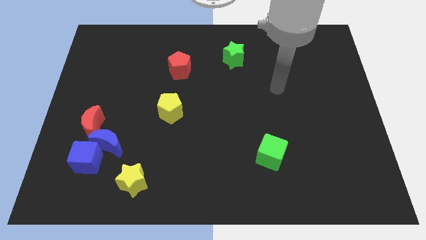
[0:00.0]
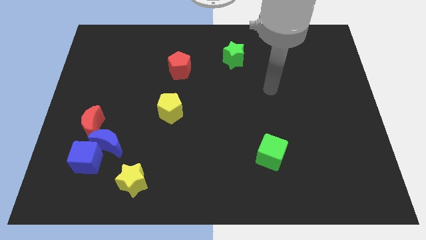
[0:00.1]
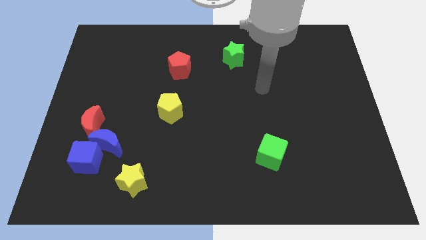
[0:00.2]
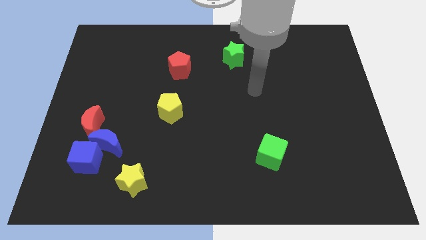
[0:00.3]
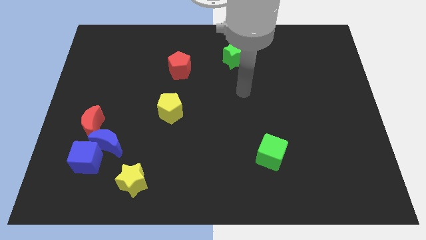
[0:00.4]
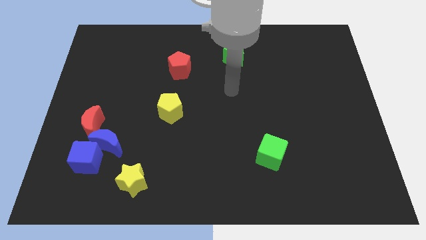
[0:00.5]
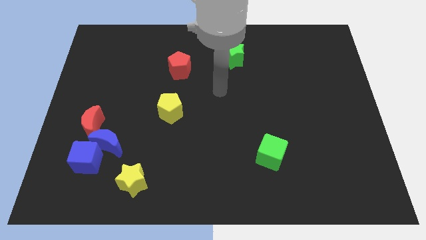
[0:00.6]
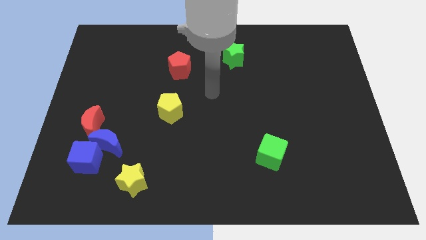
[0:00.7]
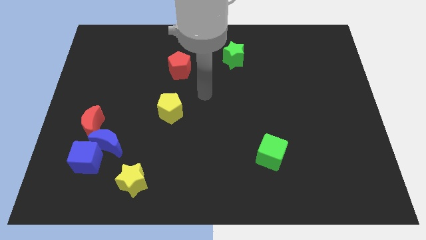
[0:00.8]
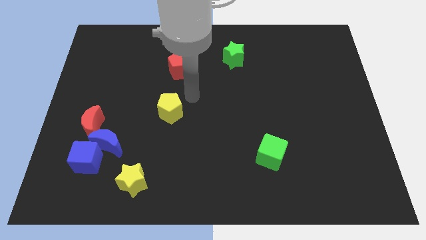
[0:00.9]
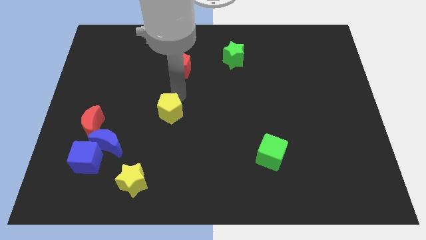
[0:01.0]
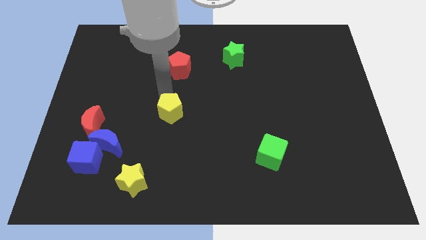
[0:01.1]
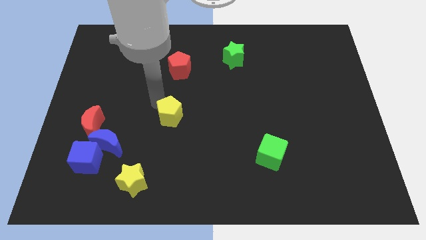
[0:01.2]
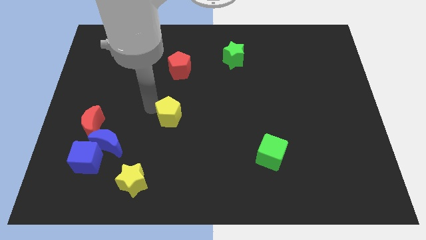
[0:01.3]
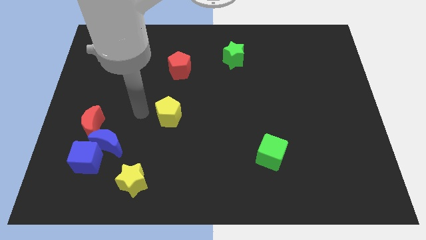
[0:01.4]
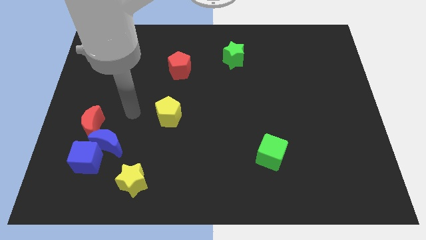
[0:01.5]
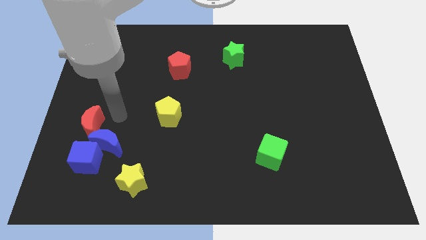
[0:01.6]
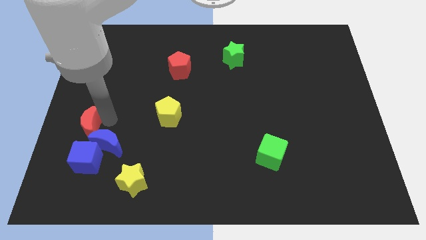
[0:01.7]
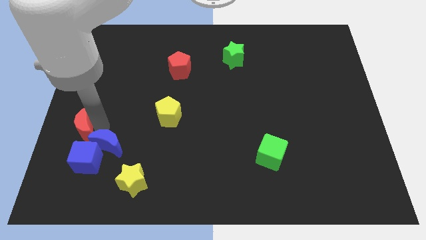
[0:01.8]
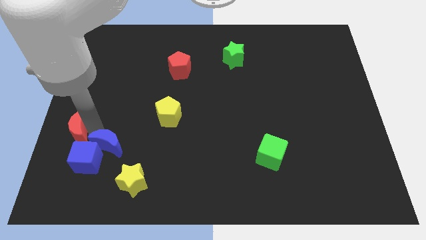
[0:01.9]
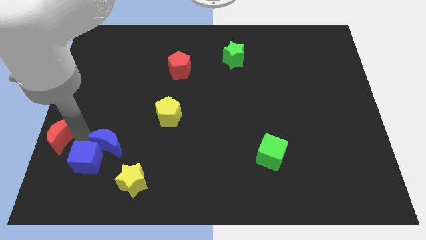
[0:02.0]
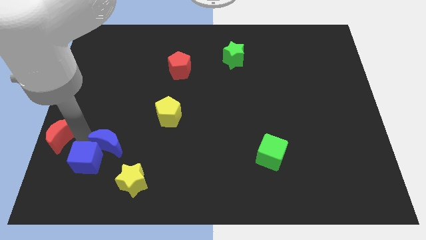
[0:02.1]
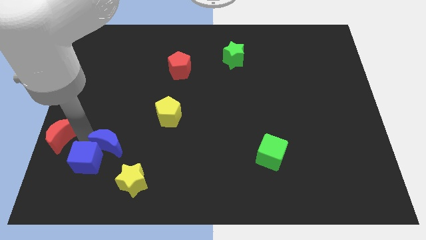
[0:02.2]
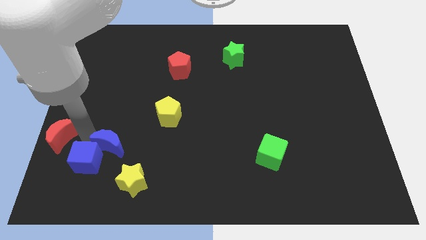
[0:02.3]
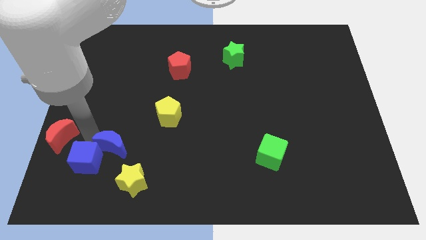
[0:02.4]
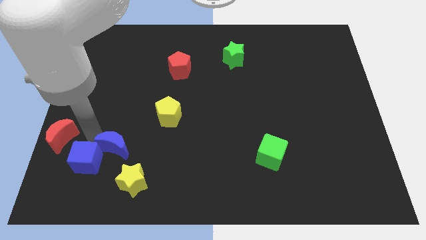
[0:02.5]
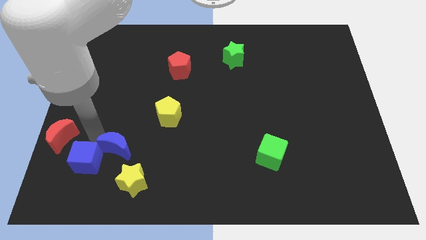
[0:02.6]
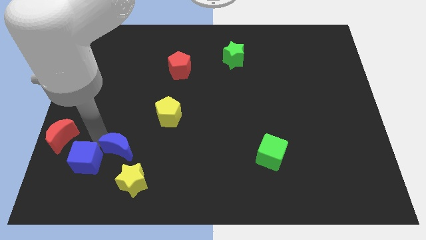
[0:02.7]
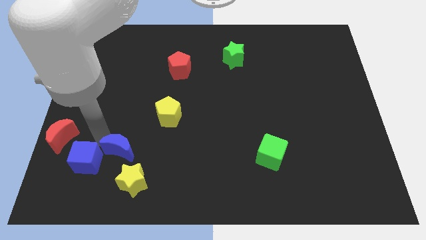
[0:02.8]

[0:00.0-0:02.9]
move the blue moon away from the blue cube and red moon

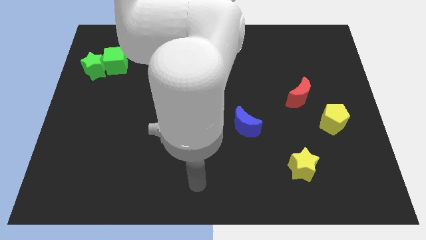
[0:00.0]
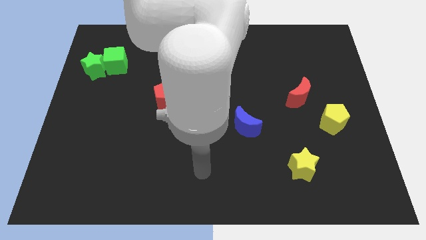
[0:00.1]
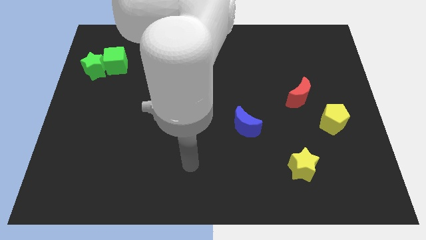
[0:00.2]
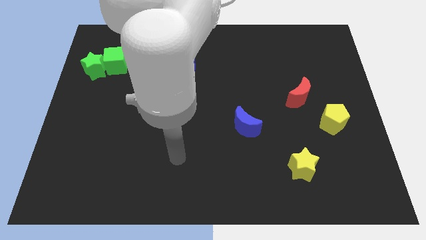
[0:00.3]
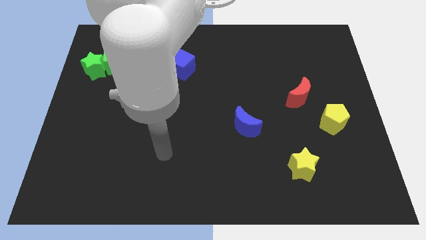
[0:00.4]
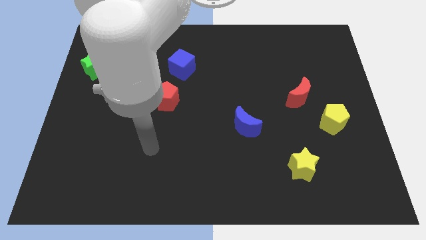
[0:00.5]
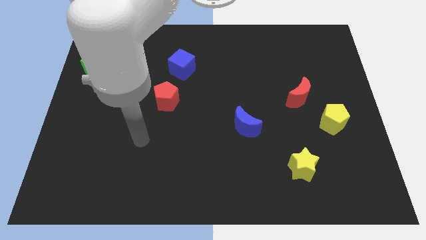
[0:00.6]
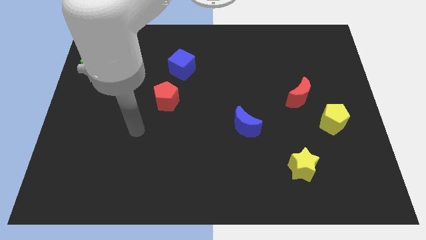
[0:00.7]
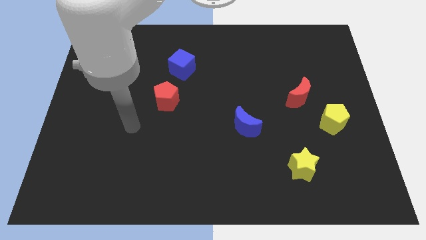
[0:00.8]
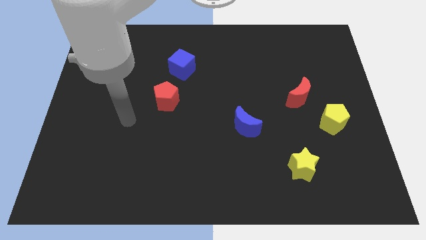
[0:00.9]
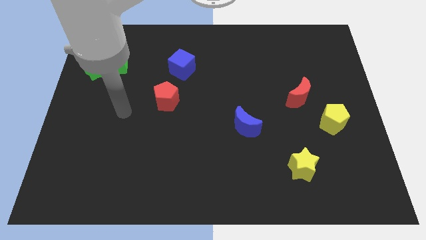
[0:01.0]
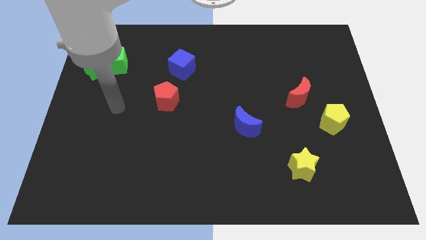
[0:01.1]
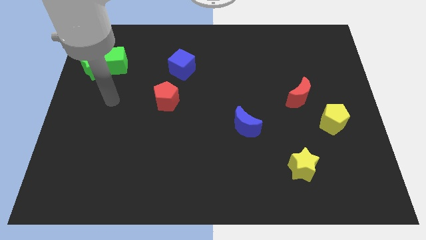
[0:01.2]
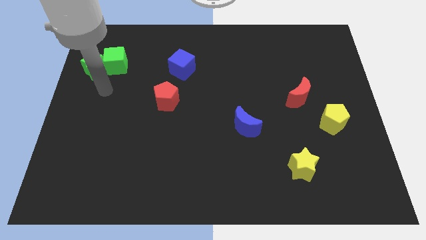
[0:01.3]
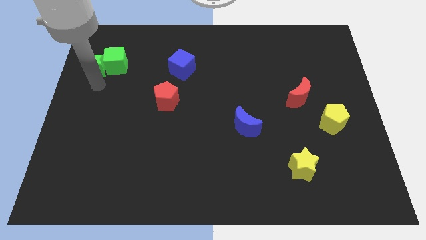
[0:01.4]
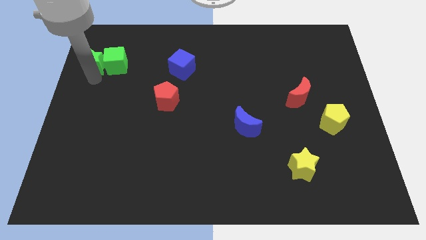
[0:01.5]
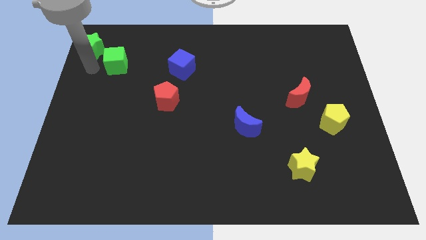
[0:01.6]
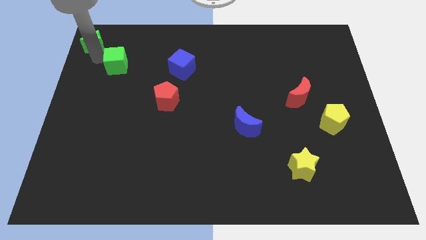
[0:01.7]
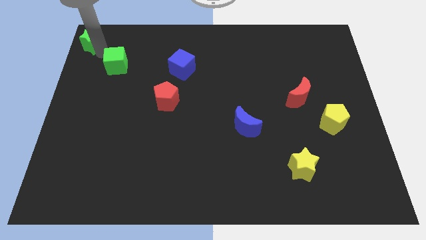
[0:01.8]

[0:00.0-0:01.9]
separate the green cube from the green star

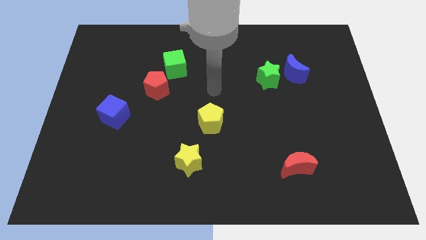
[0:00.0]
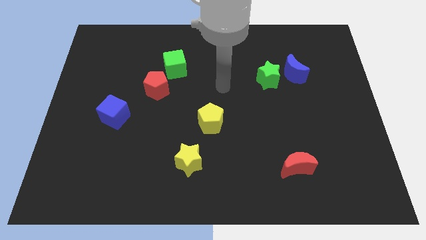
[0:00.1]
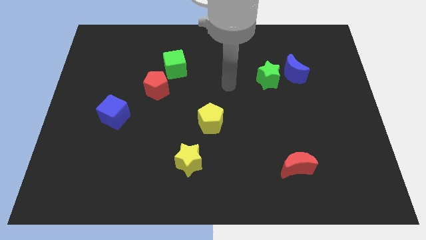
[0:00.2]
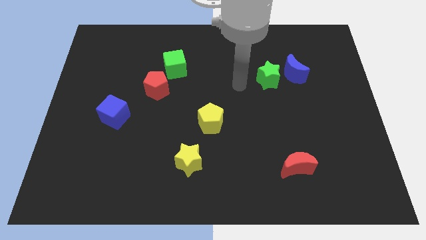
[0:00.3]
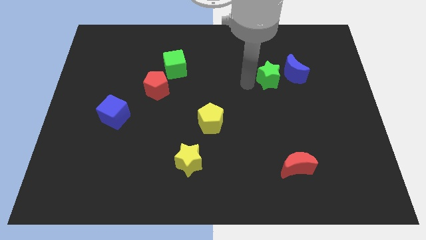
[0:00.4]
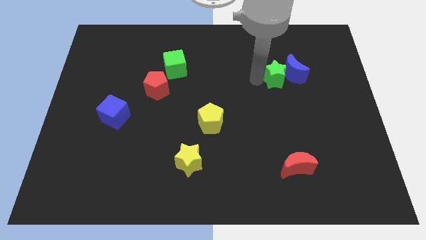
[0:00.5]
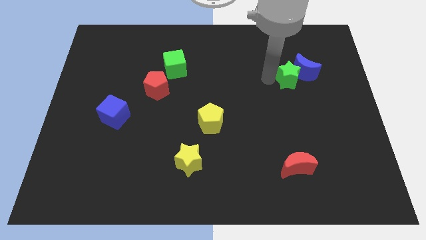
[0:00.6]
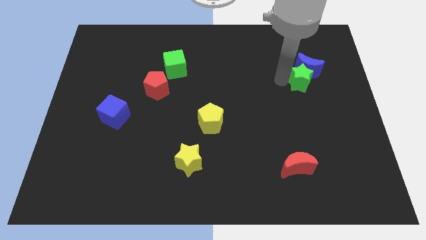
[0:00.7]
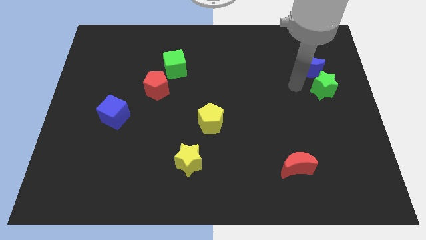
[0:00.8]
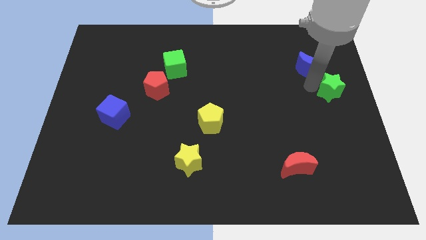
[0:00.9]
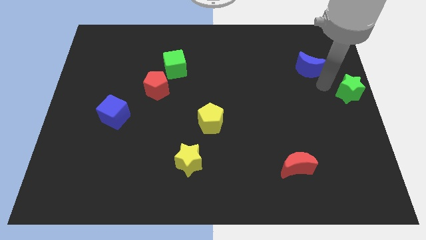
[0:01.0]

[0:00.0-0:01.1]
move the blue moon away from the green star

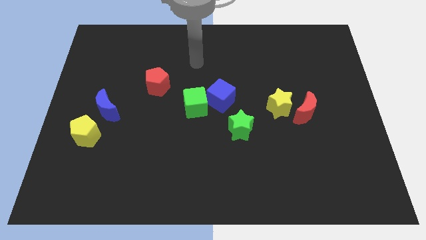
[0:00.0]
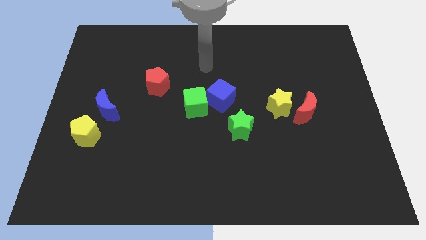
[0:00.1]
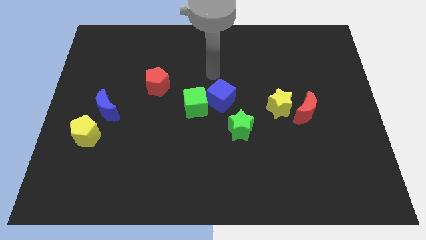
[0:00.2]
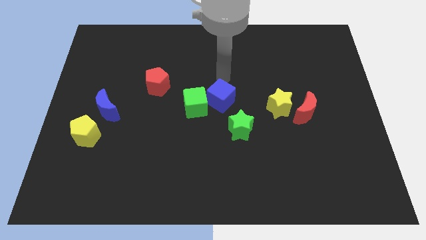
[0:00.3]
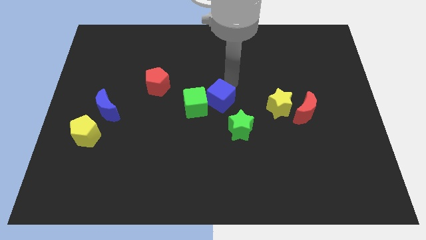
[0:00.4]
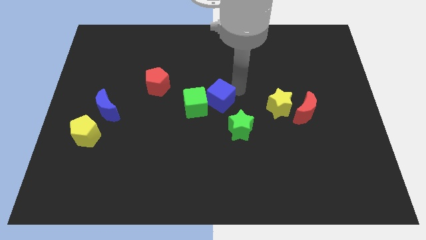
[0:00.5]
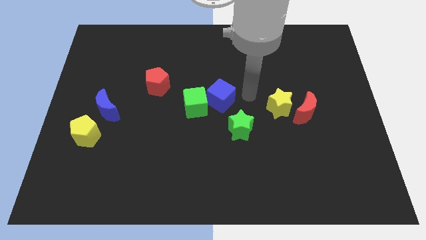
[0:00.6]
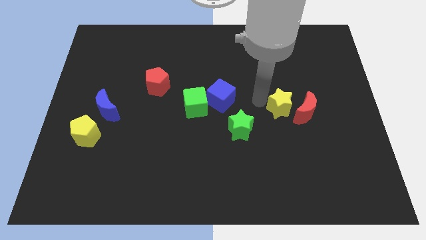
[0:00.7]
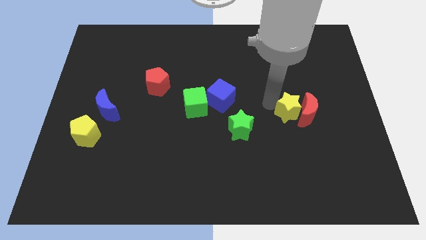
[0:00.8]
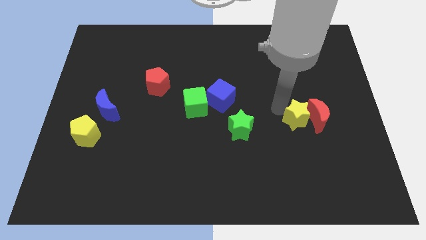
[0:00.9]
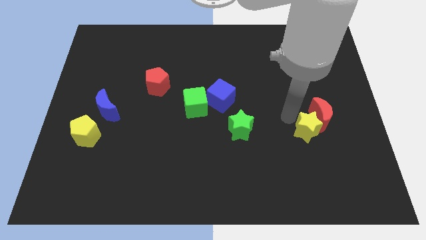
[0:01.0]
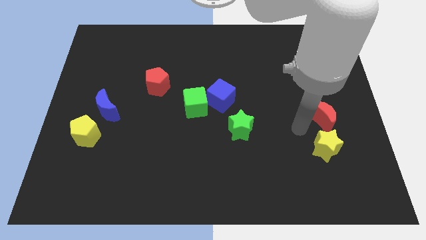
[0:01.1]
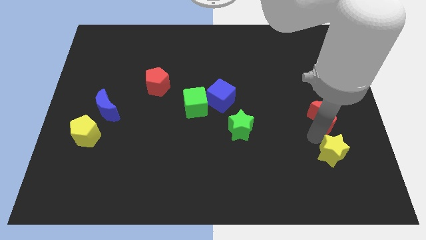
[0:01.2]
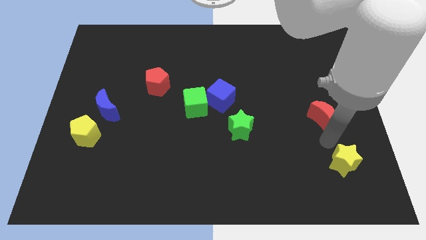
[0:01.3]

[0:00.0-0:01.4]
pull the red moon apart from the yellow star

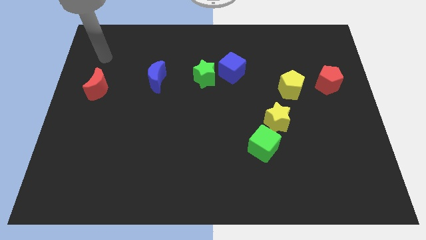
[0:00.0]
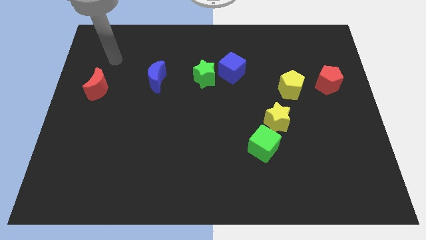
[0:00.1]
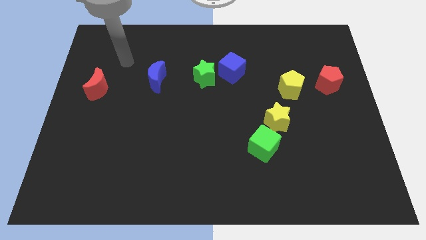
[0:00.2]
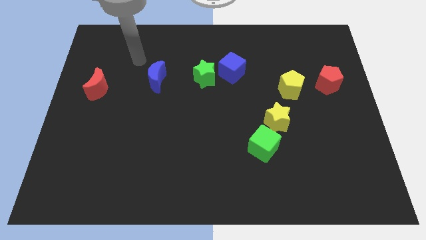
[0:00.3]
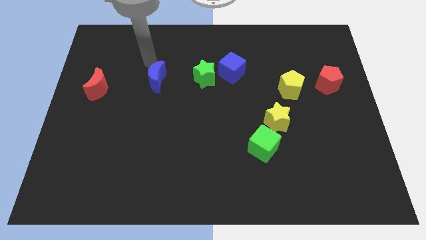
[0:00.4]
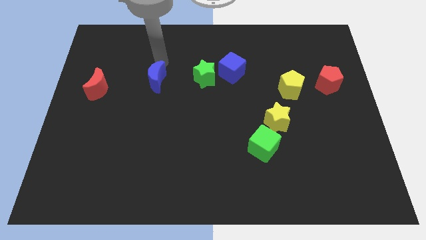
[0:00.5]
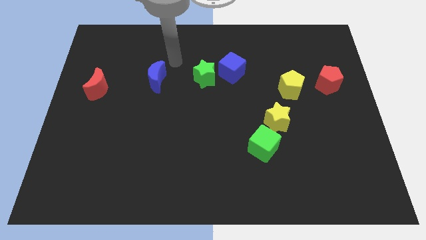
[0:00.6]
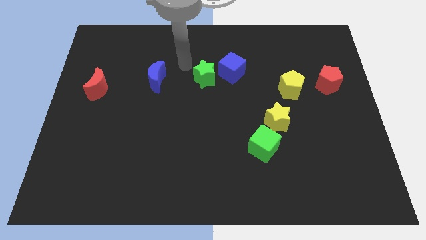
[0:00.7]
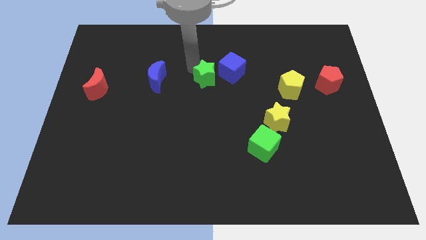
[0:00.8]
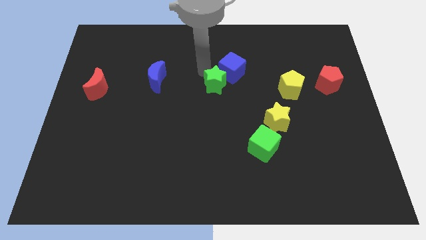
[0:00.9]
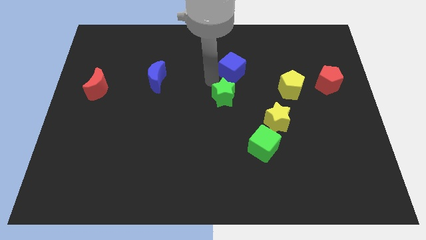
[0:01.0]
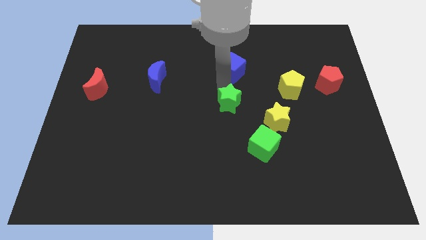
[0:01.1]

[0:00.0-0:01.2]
pull the blue cube apart from the green star

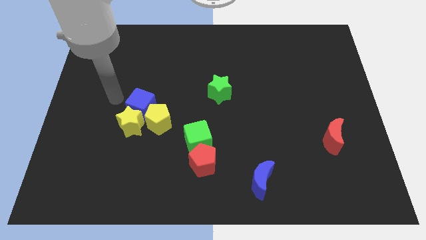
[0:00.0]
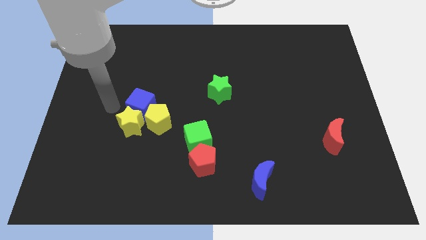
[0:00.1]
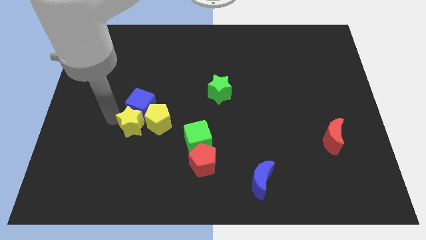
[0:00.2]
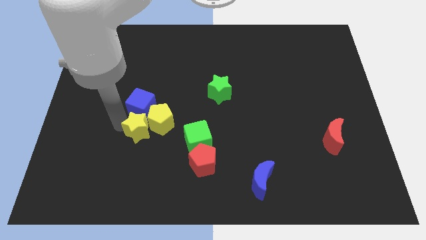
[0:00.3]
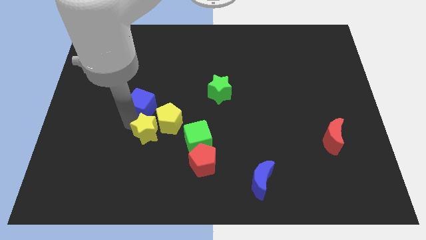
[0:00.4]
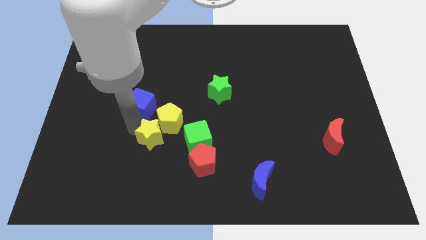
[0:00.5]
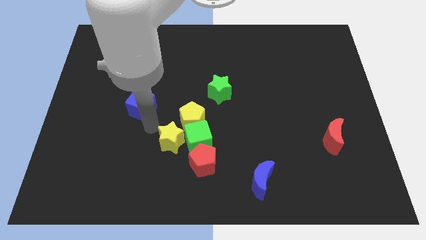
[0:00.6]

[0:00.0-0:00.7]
pull the blue cube apart from the yellow star and yellow pentagon

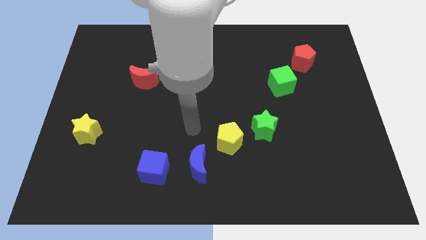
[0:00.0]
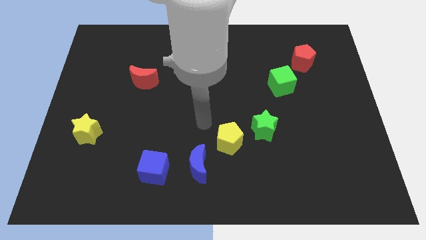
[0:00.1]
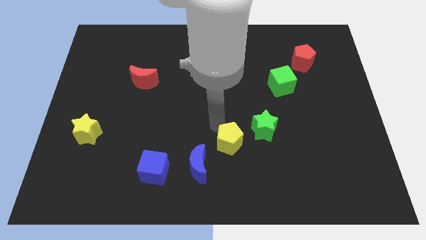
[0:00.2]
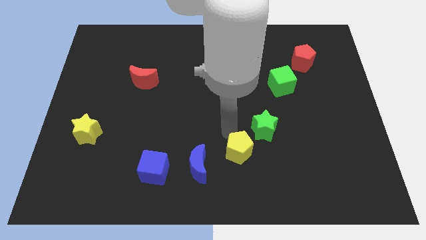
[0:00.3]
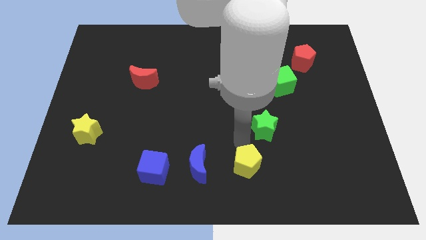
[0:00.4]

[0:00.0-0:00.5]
pull the green star apart from the yellow pentagon
